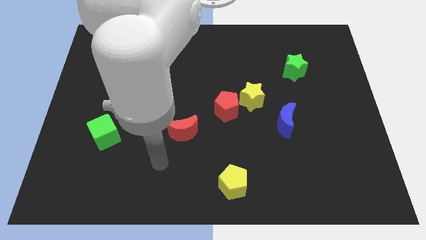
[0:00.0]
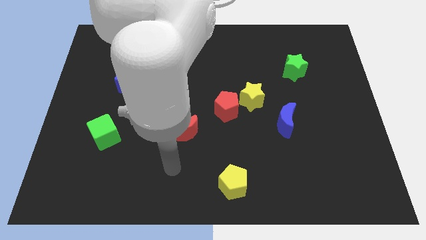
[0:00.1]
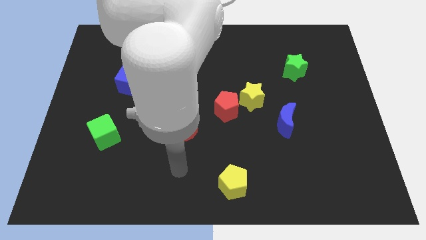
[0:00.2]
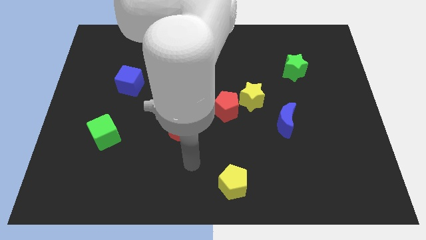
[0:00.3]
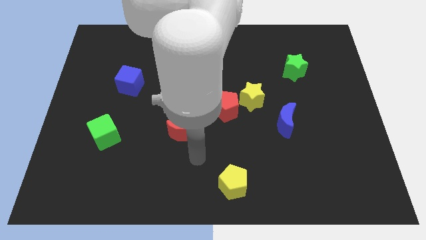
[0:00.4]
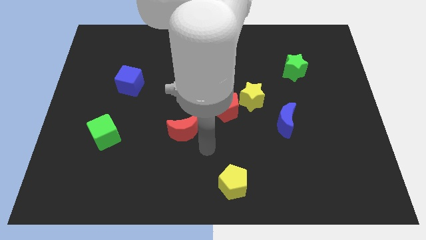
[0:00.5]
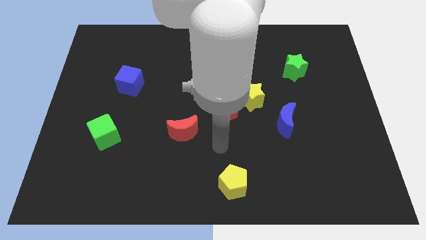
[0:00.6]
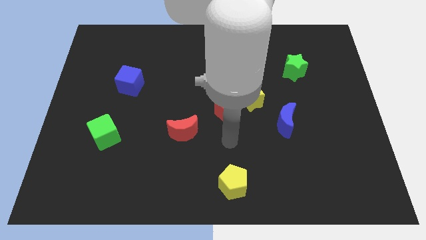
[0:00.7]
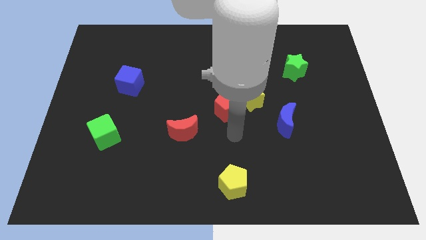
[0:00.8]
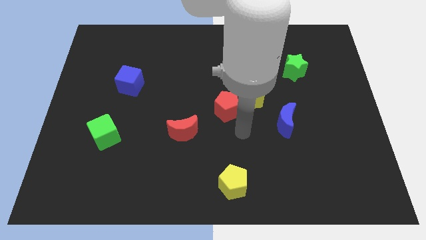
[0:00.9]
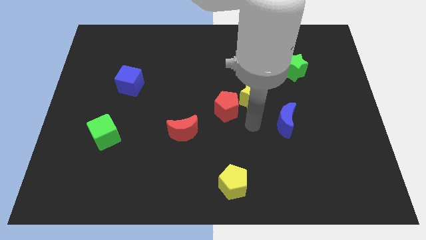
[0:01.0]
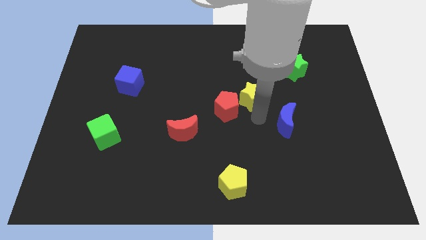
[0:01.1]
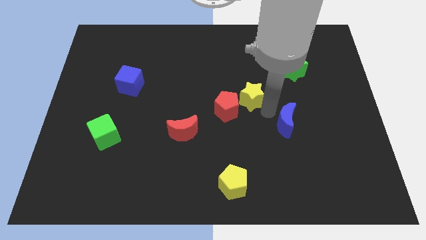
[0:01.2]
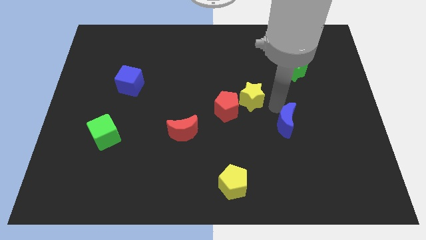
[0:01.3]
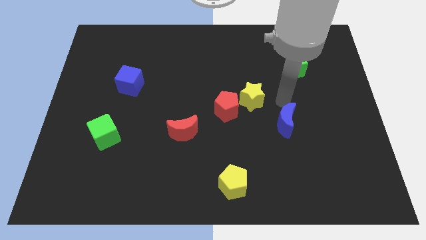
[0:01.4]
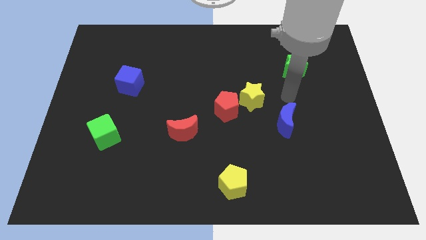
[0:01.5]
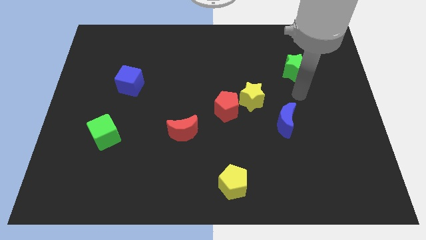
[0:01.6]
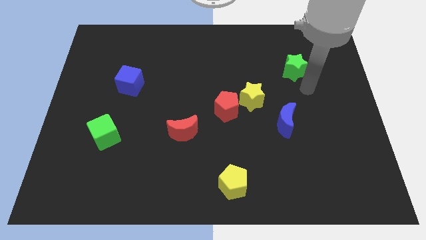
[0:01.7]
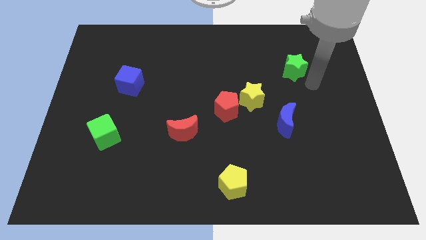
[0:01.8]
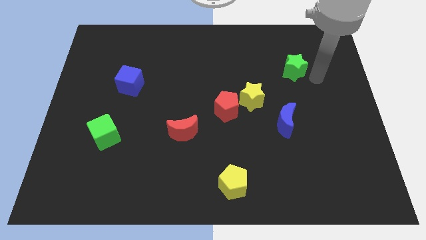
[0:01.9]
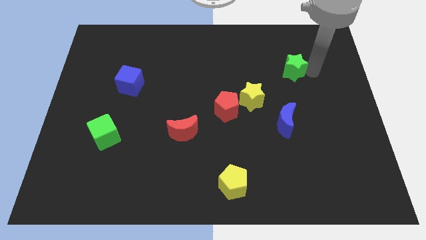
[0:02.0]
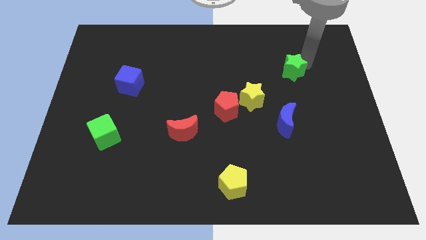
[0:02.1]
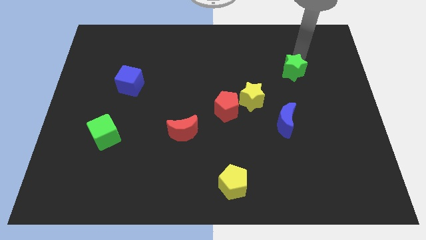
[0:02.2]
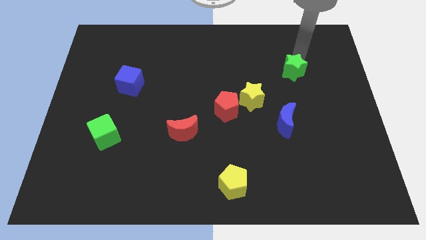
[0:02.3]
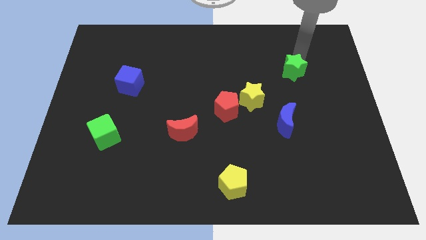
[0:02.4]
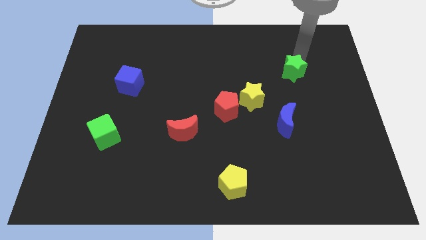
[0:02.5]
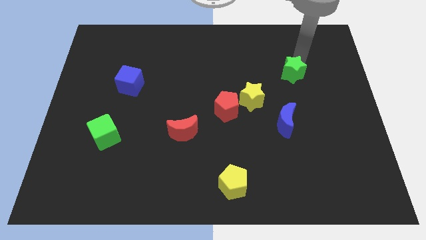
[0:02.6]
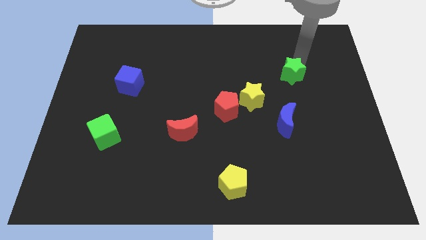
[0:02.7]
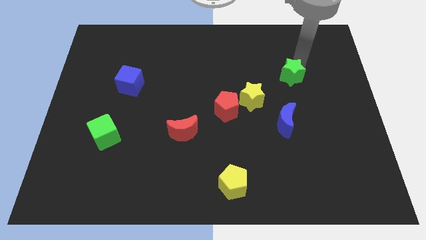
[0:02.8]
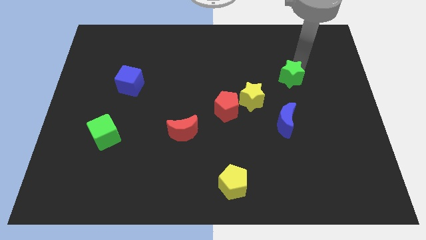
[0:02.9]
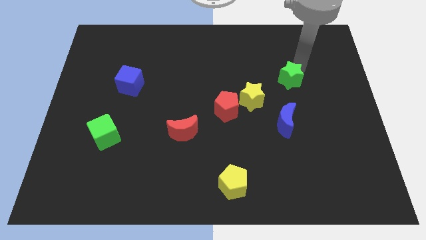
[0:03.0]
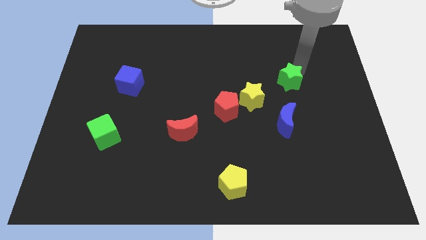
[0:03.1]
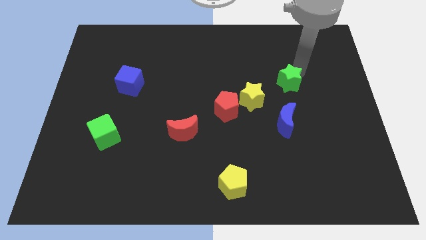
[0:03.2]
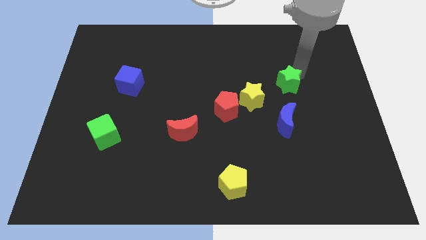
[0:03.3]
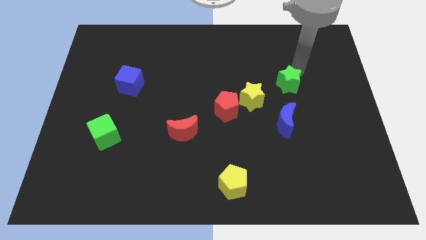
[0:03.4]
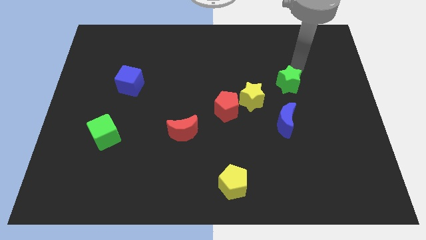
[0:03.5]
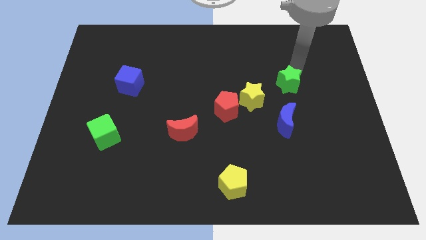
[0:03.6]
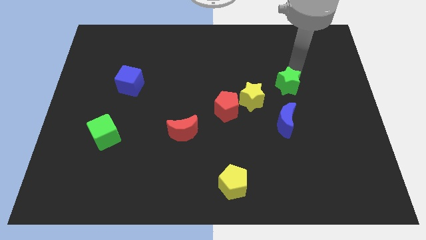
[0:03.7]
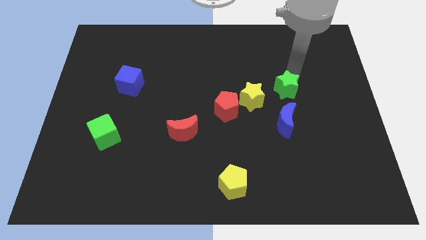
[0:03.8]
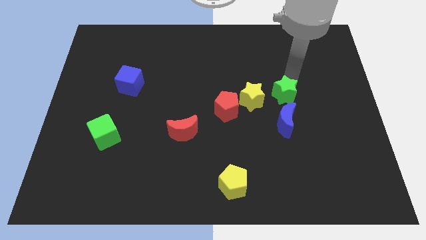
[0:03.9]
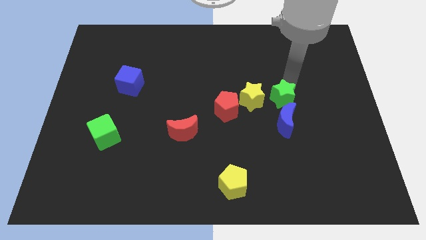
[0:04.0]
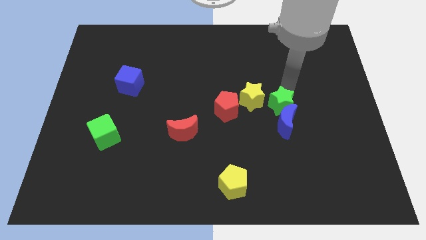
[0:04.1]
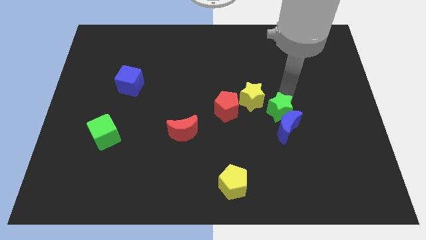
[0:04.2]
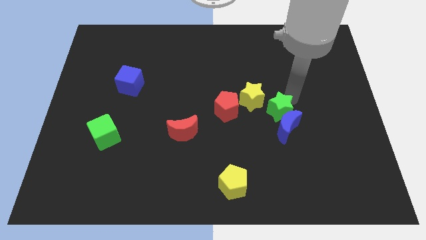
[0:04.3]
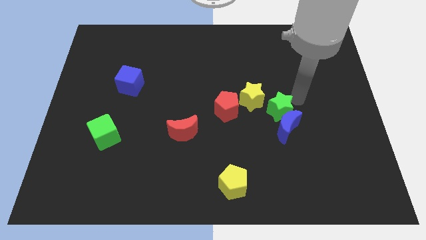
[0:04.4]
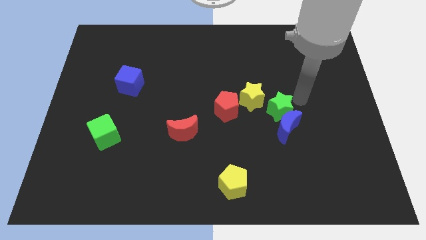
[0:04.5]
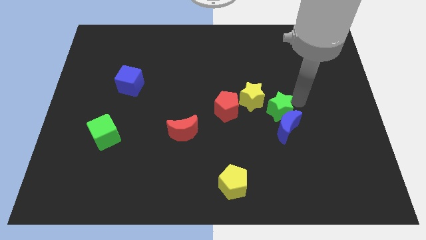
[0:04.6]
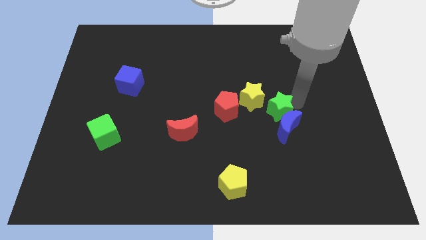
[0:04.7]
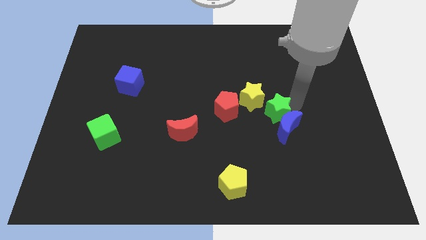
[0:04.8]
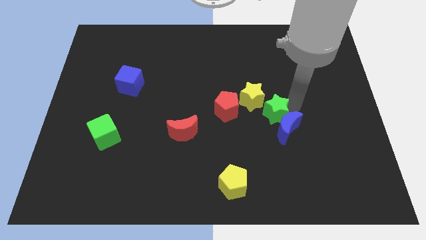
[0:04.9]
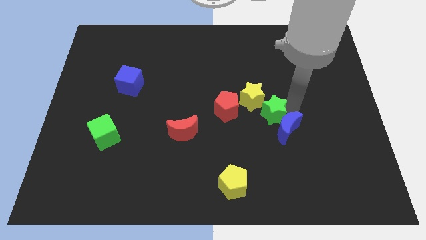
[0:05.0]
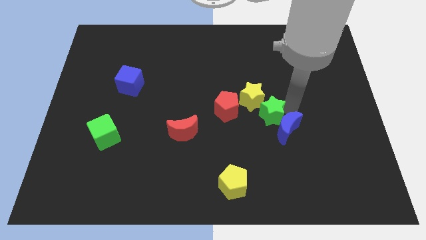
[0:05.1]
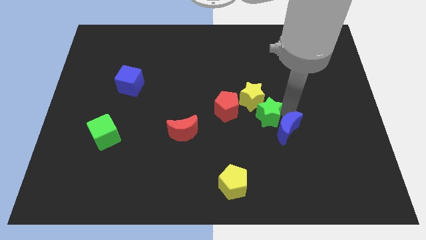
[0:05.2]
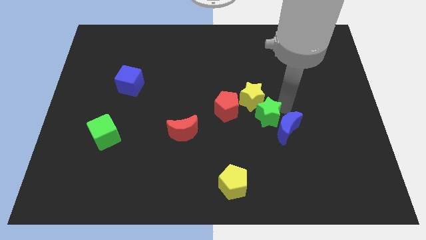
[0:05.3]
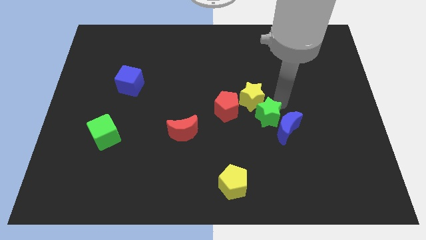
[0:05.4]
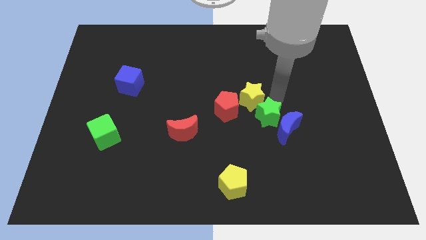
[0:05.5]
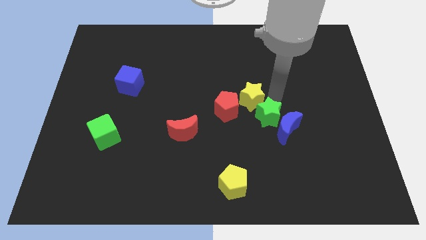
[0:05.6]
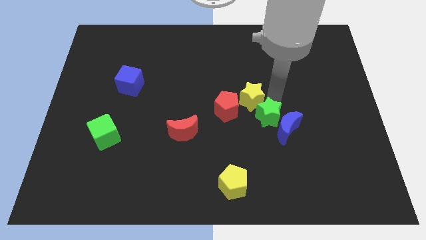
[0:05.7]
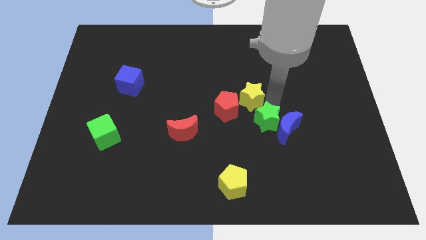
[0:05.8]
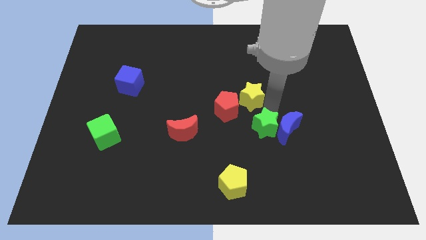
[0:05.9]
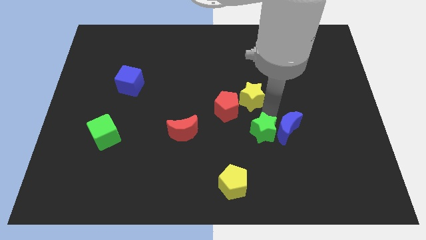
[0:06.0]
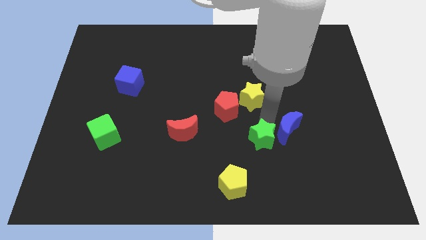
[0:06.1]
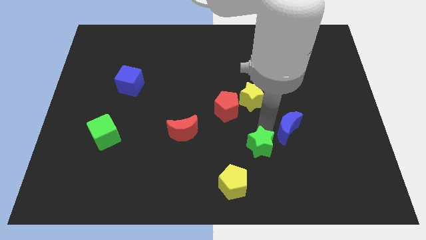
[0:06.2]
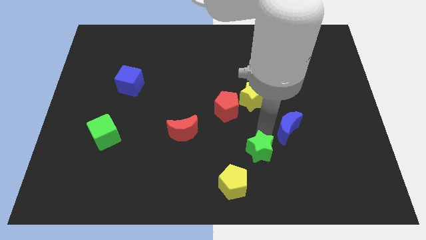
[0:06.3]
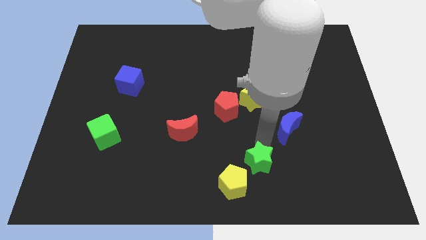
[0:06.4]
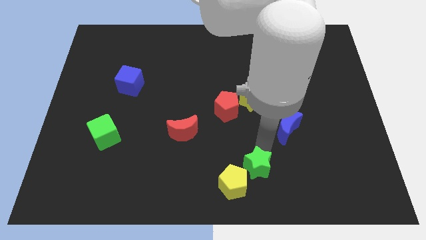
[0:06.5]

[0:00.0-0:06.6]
move the green star close to the yellow pentagon

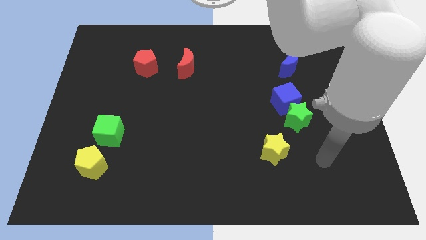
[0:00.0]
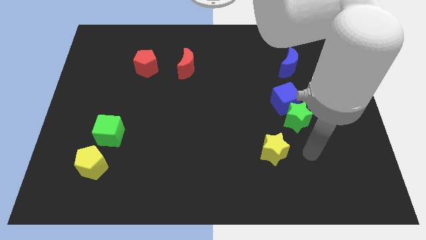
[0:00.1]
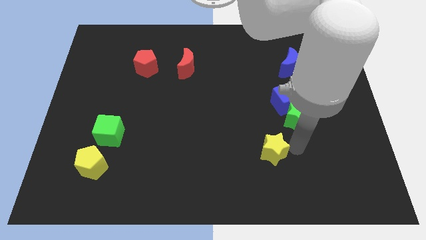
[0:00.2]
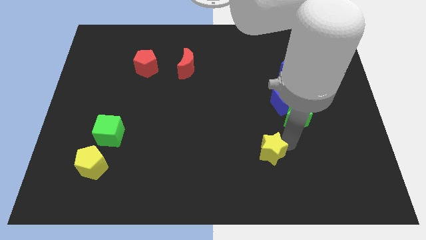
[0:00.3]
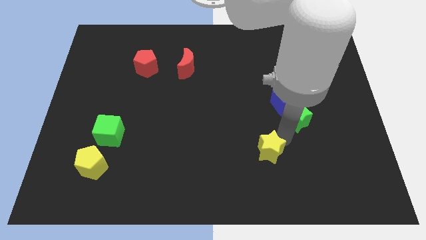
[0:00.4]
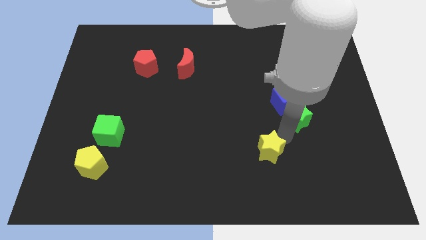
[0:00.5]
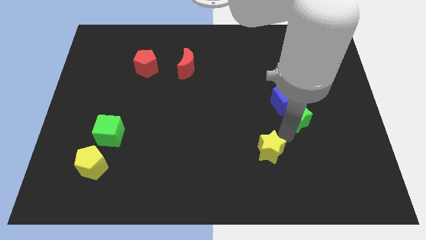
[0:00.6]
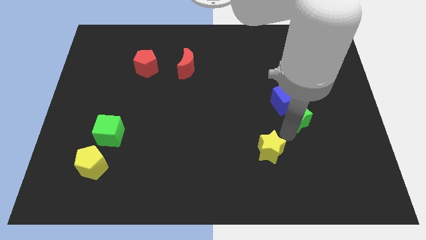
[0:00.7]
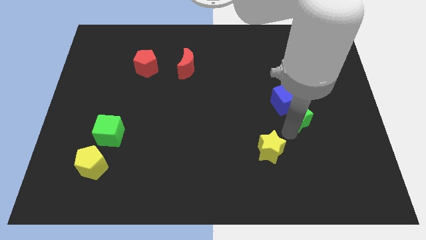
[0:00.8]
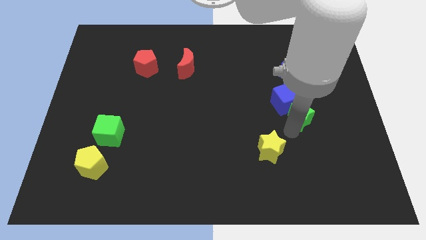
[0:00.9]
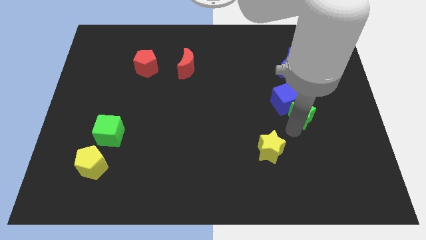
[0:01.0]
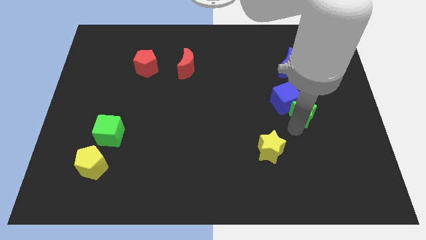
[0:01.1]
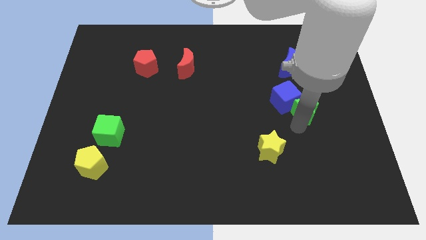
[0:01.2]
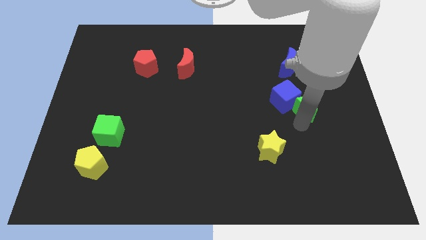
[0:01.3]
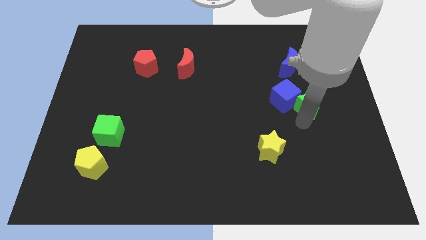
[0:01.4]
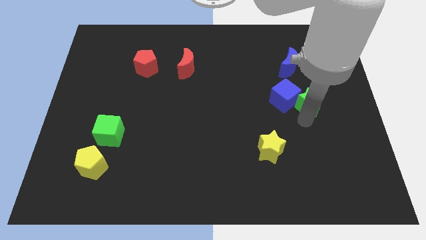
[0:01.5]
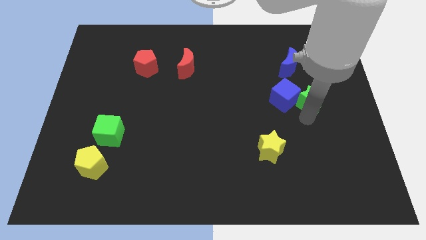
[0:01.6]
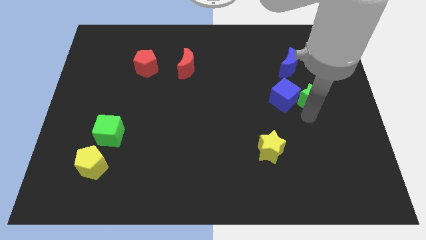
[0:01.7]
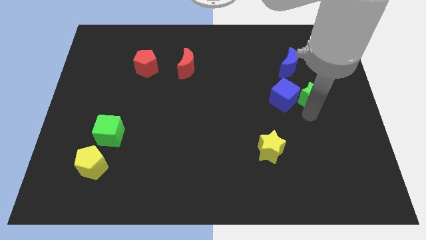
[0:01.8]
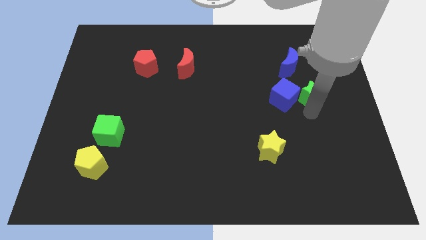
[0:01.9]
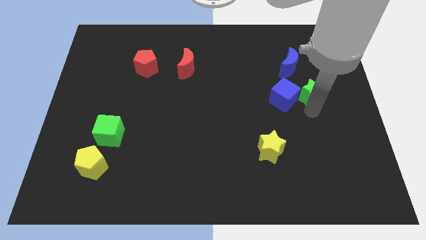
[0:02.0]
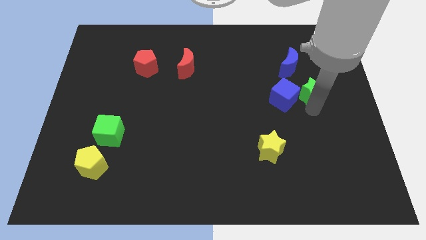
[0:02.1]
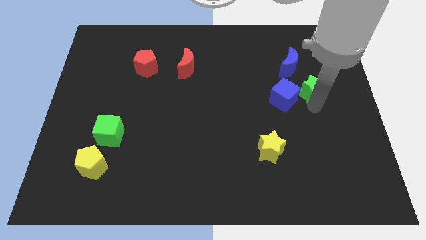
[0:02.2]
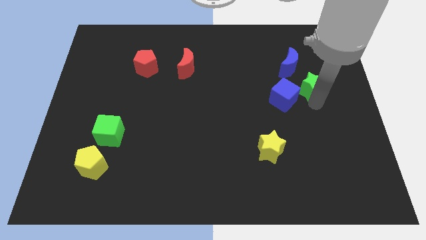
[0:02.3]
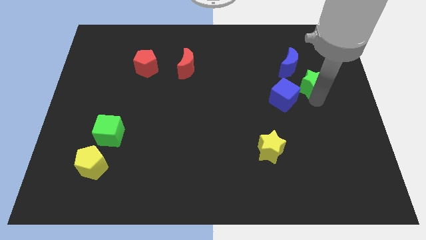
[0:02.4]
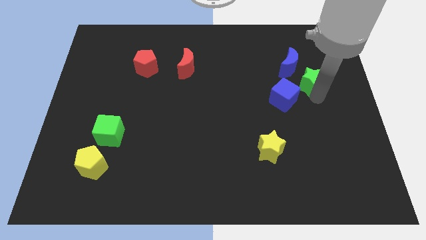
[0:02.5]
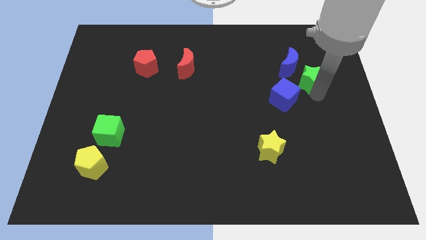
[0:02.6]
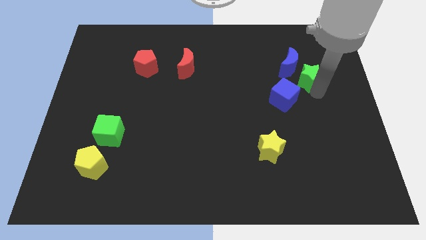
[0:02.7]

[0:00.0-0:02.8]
move the green star close to the blue moon
